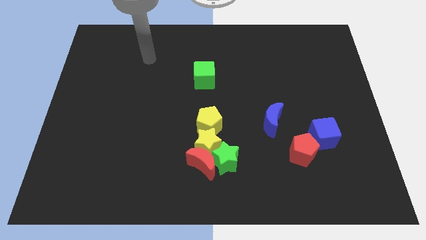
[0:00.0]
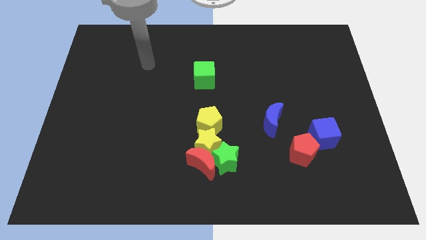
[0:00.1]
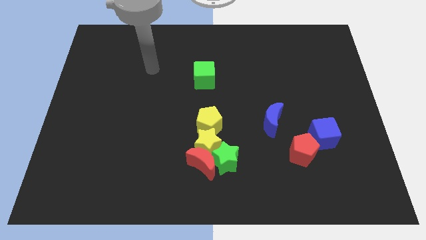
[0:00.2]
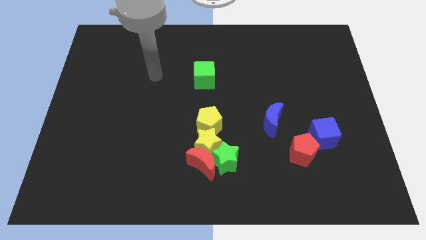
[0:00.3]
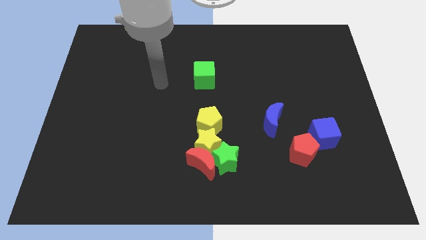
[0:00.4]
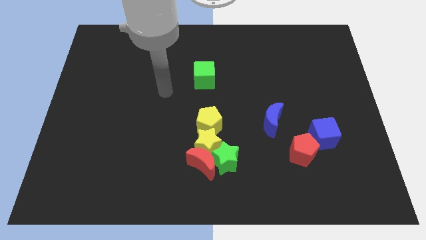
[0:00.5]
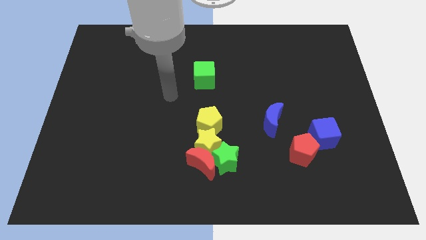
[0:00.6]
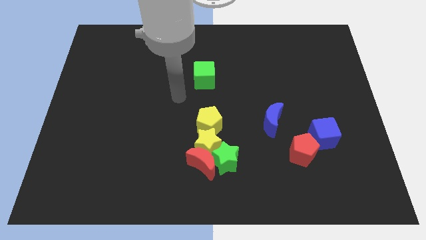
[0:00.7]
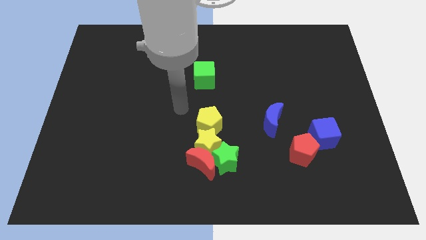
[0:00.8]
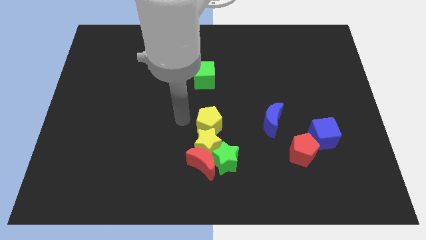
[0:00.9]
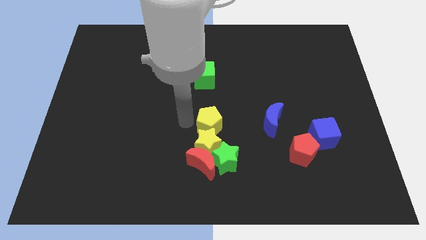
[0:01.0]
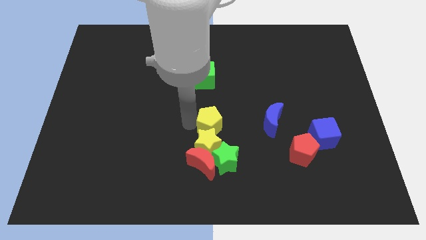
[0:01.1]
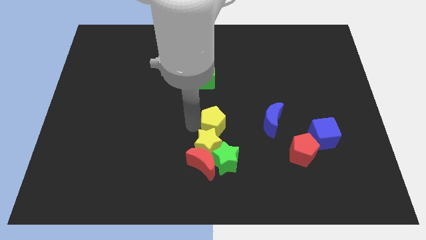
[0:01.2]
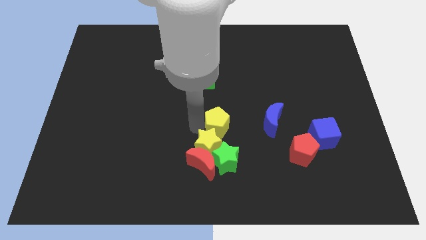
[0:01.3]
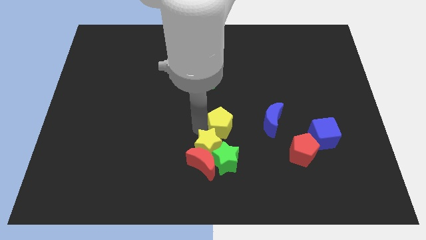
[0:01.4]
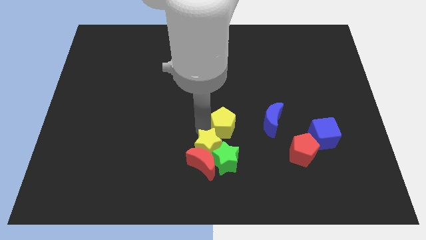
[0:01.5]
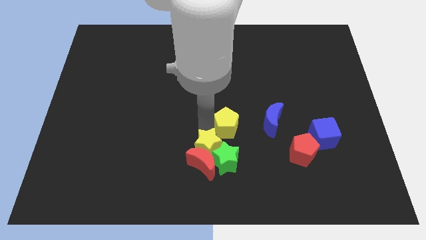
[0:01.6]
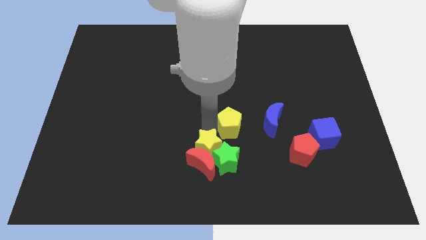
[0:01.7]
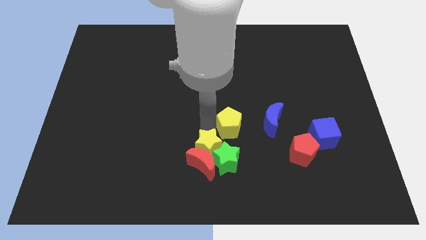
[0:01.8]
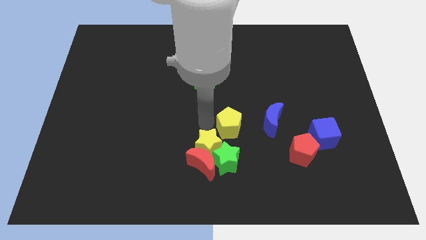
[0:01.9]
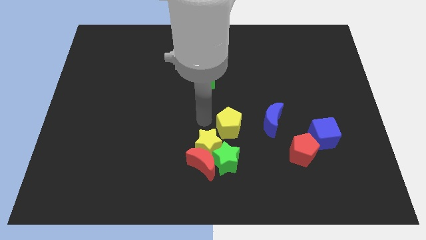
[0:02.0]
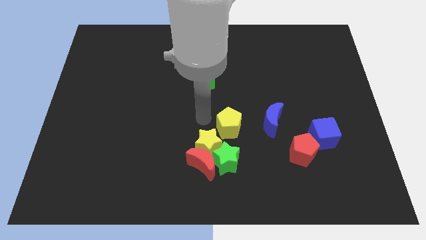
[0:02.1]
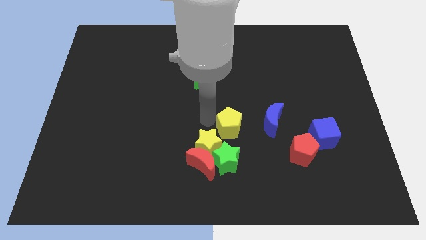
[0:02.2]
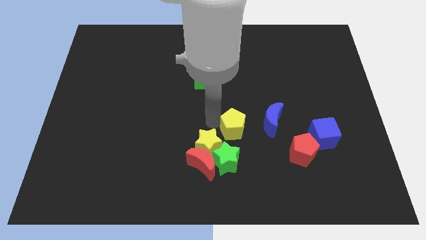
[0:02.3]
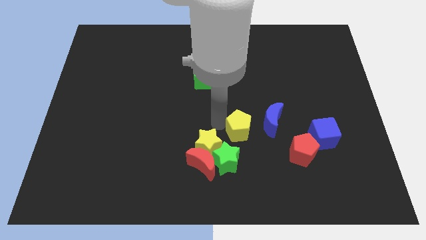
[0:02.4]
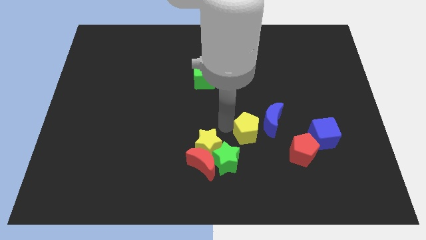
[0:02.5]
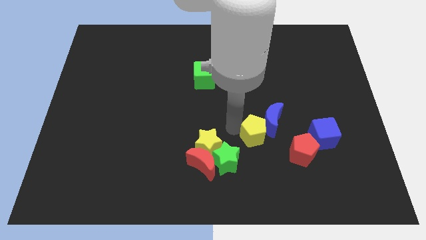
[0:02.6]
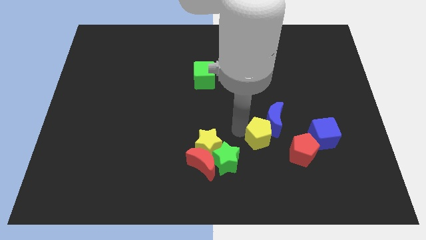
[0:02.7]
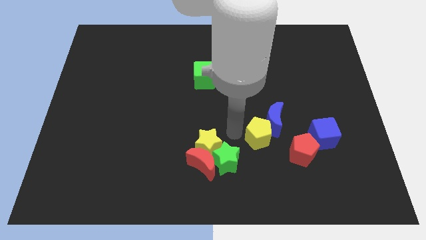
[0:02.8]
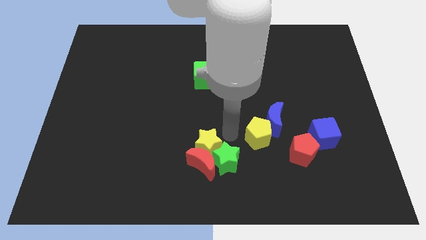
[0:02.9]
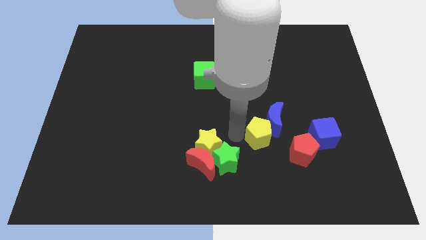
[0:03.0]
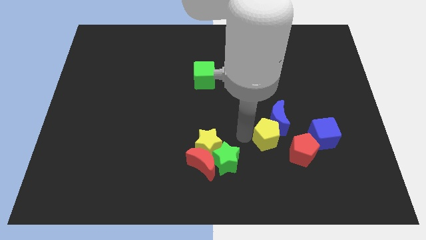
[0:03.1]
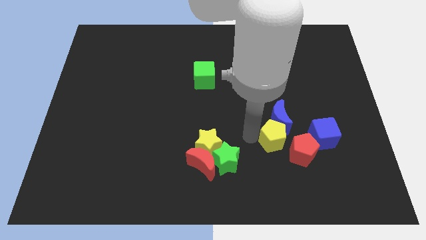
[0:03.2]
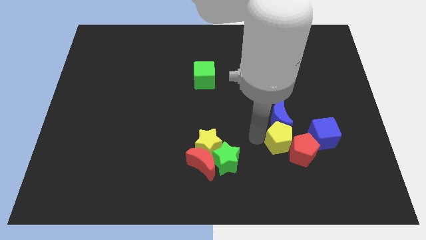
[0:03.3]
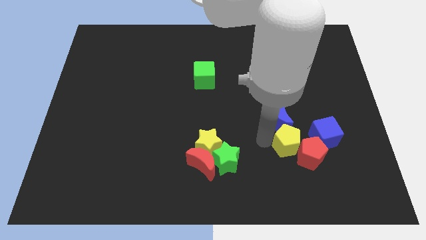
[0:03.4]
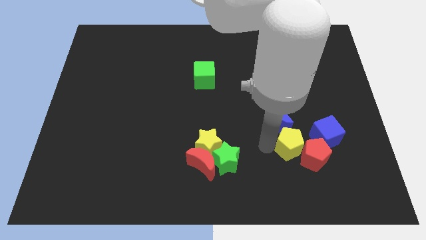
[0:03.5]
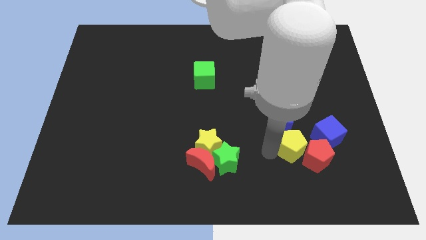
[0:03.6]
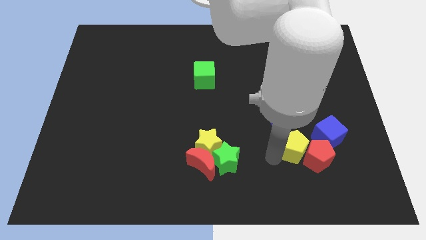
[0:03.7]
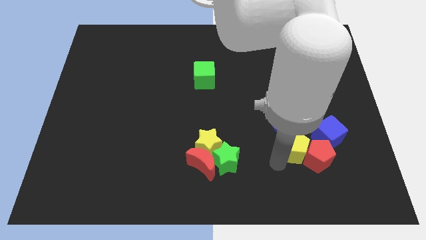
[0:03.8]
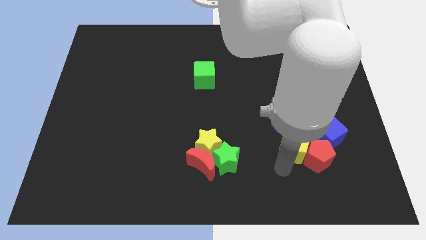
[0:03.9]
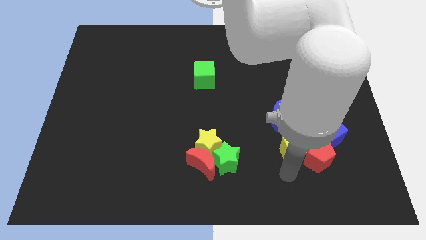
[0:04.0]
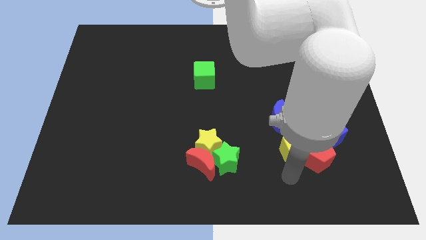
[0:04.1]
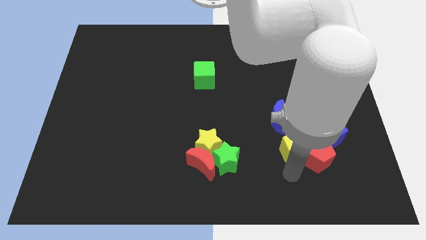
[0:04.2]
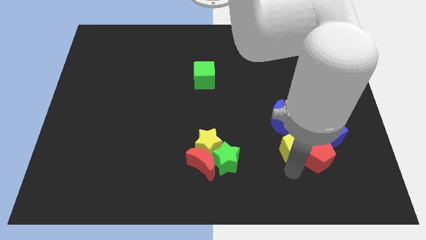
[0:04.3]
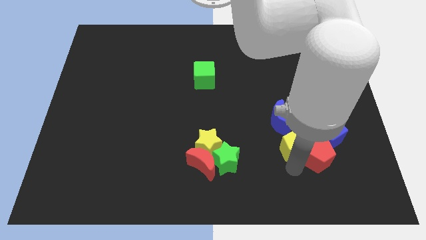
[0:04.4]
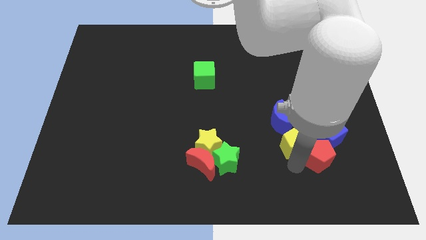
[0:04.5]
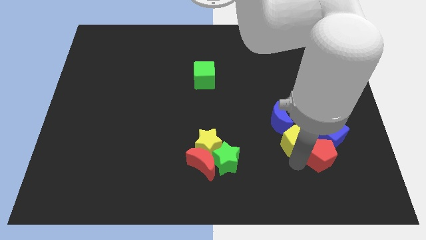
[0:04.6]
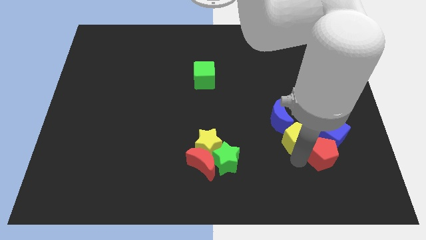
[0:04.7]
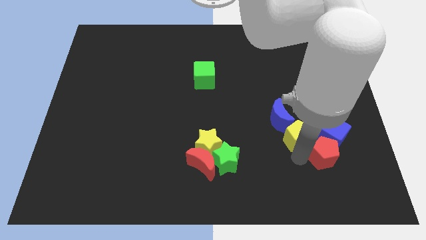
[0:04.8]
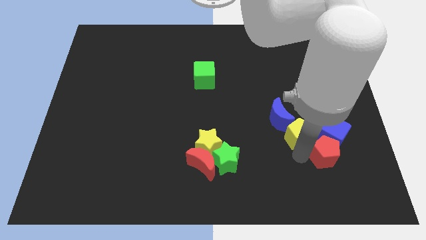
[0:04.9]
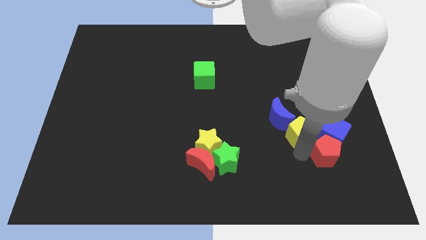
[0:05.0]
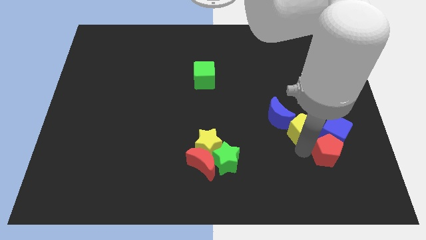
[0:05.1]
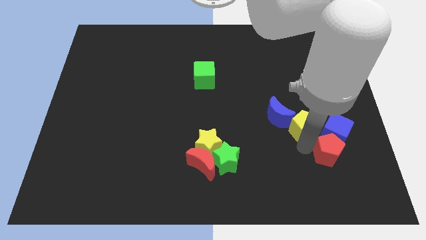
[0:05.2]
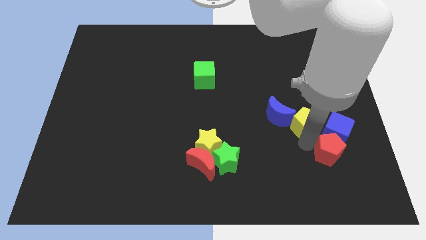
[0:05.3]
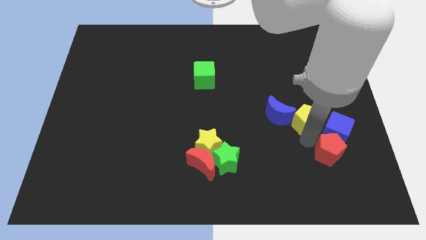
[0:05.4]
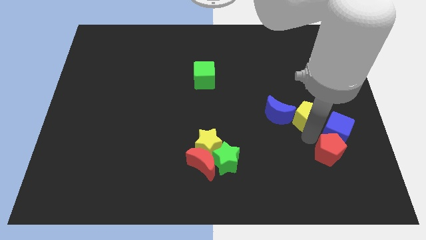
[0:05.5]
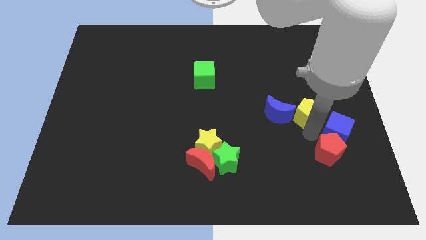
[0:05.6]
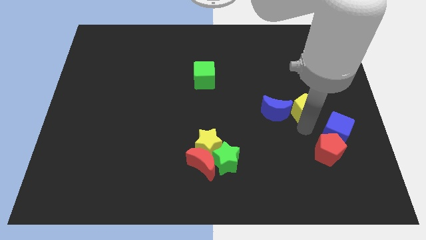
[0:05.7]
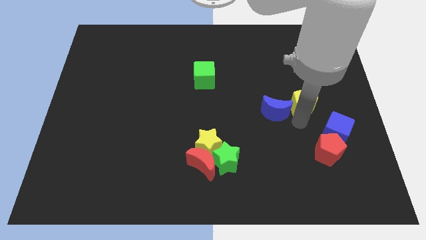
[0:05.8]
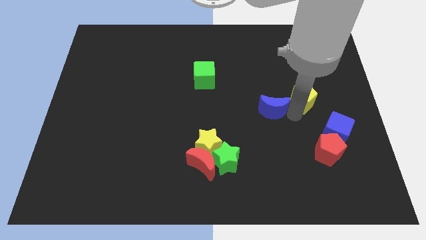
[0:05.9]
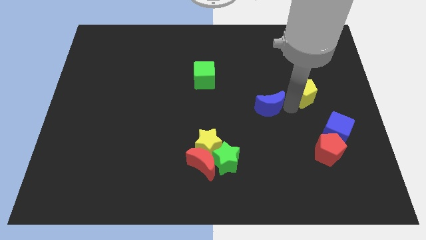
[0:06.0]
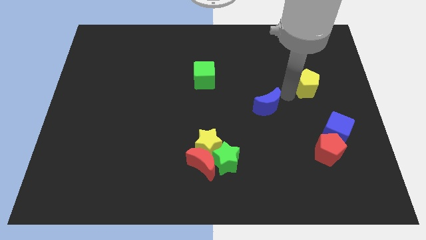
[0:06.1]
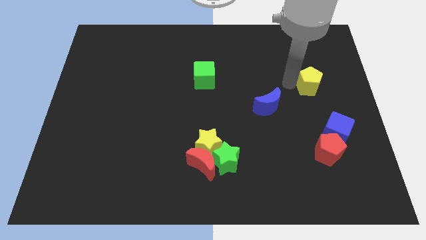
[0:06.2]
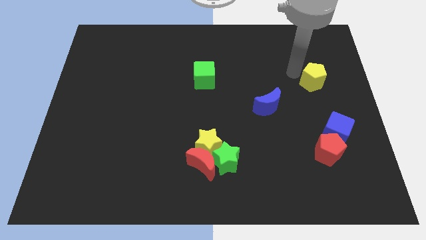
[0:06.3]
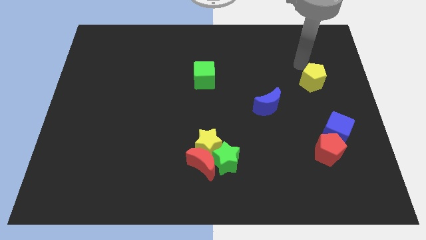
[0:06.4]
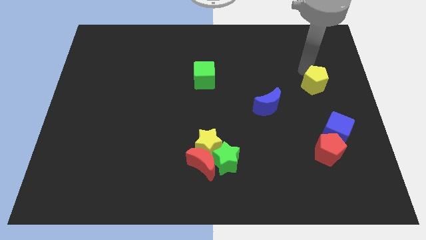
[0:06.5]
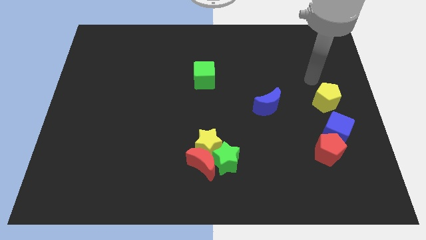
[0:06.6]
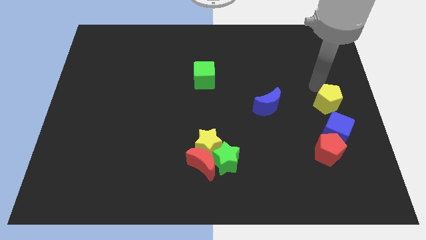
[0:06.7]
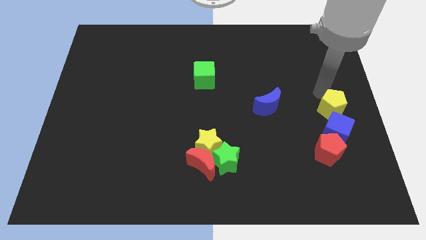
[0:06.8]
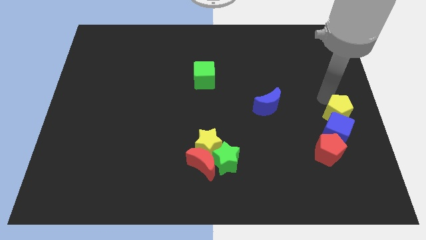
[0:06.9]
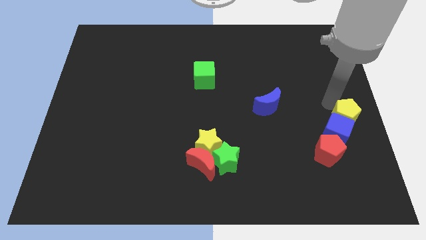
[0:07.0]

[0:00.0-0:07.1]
put the yellow pentagon to the top right side of the red pentagon
